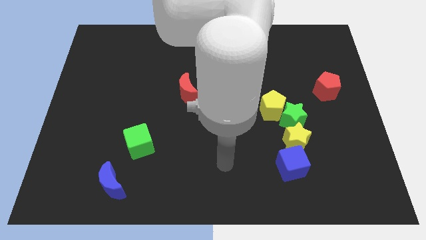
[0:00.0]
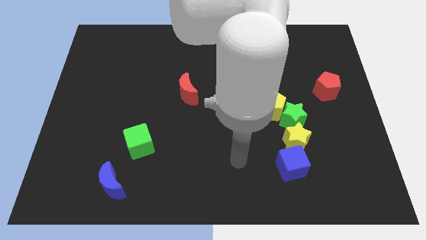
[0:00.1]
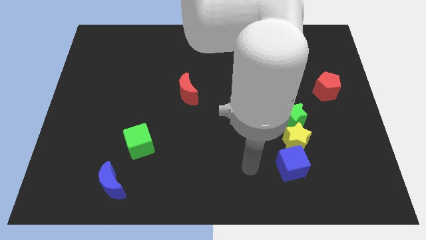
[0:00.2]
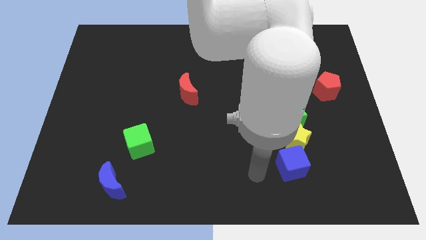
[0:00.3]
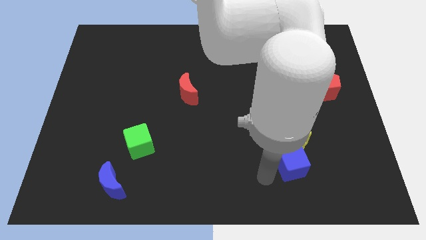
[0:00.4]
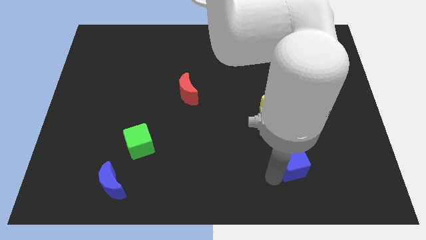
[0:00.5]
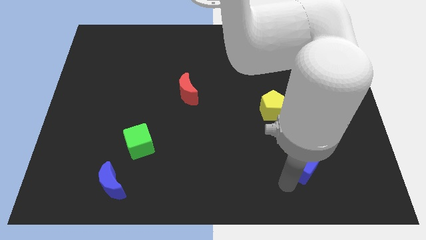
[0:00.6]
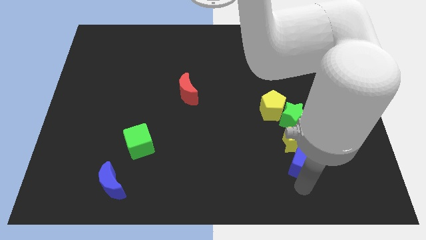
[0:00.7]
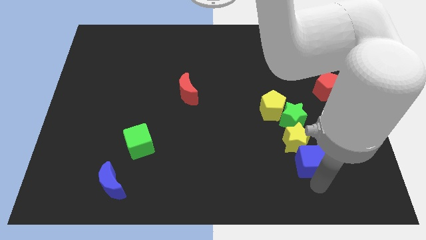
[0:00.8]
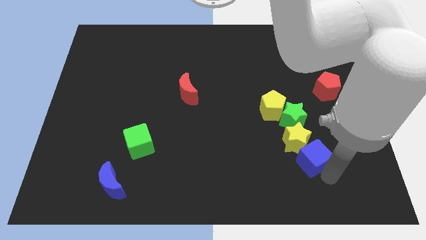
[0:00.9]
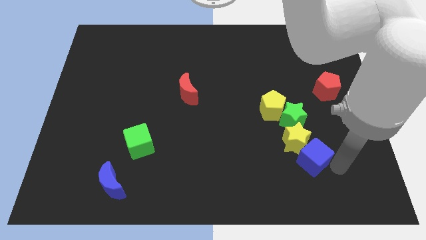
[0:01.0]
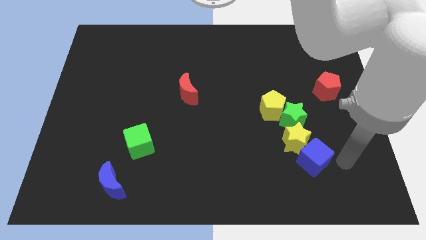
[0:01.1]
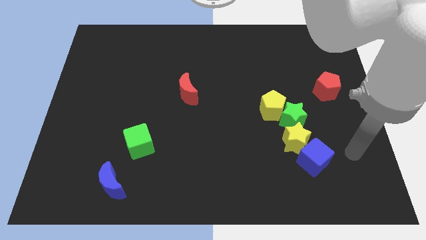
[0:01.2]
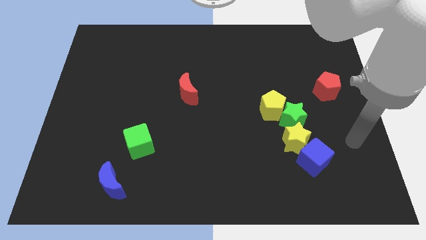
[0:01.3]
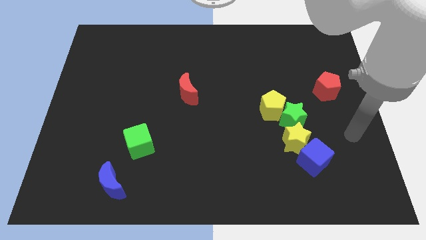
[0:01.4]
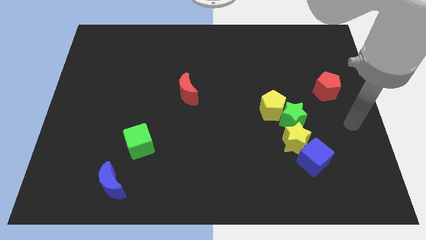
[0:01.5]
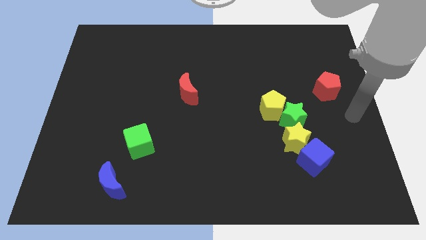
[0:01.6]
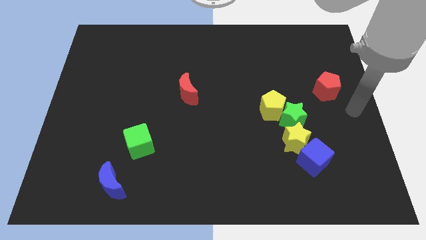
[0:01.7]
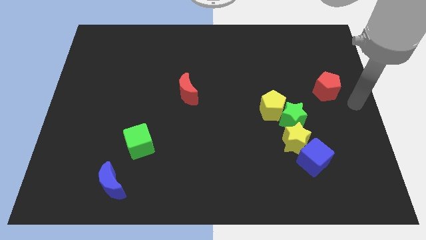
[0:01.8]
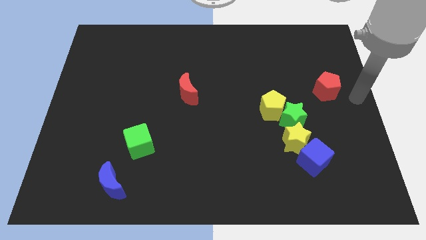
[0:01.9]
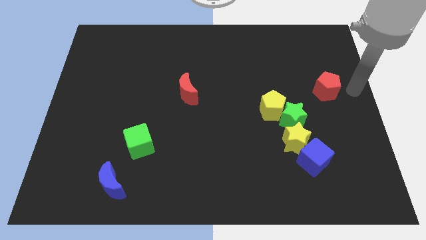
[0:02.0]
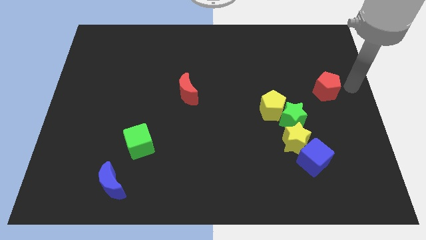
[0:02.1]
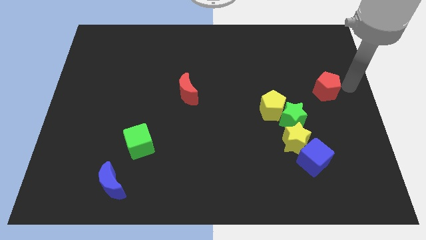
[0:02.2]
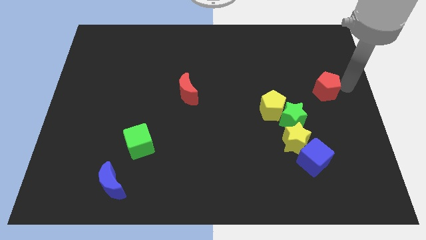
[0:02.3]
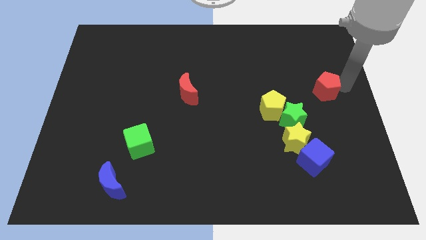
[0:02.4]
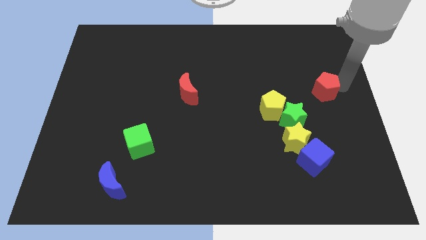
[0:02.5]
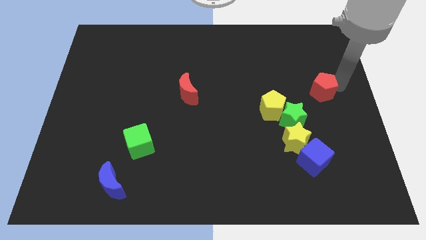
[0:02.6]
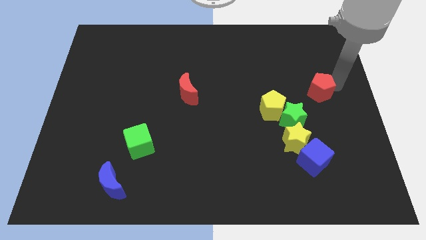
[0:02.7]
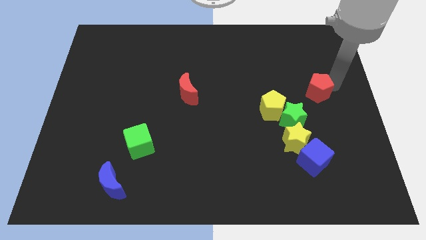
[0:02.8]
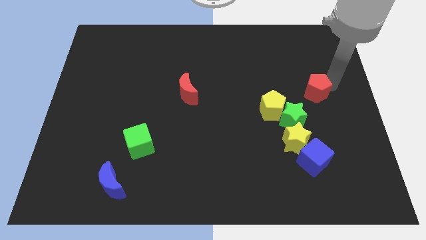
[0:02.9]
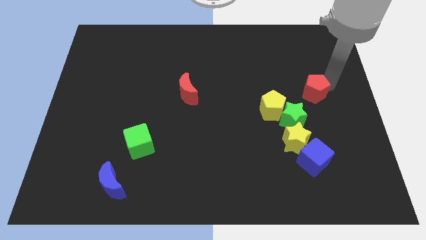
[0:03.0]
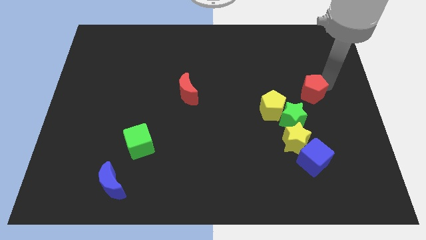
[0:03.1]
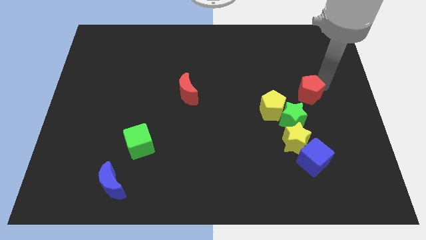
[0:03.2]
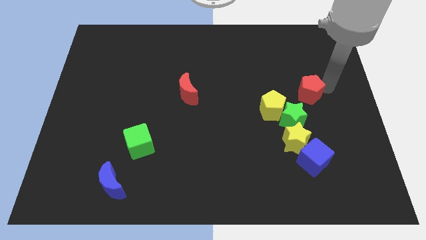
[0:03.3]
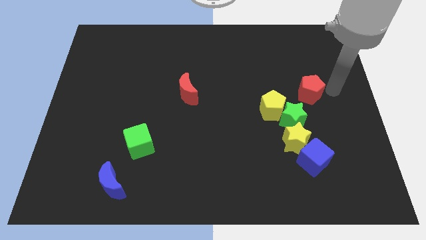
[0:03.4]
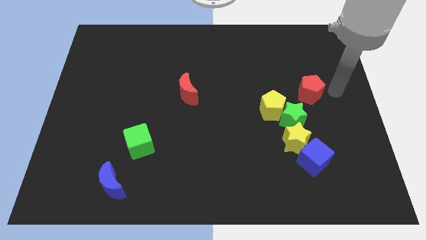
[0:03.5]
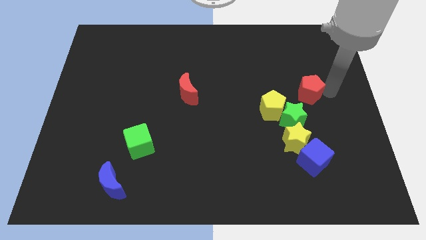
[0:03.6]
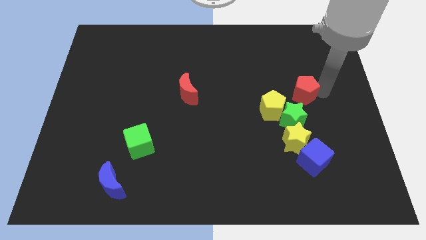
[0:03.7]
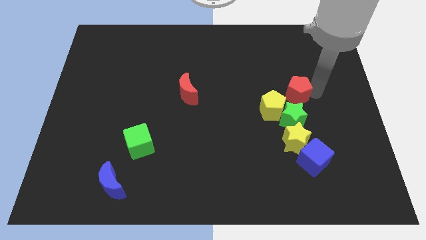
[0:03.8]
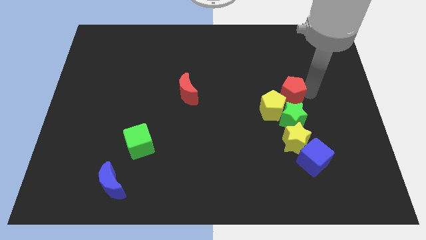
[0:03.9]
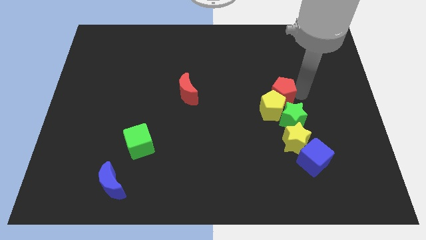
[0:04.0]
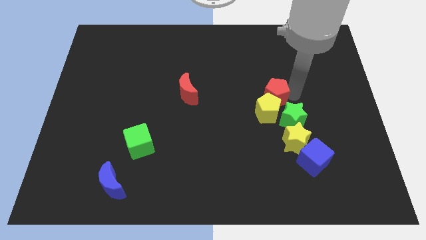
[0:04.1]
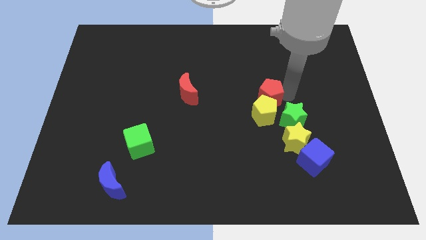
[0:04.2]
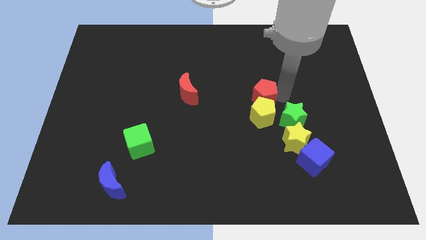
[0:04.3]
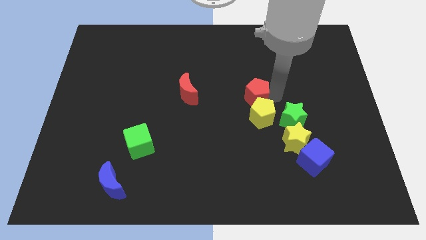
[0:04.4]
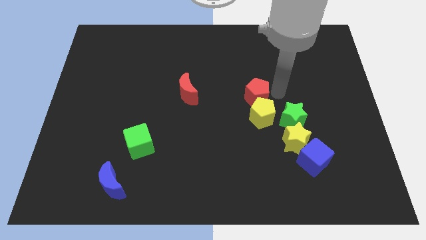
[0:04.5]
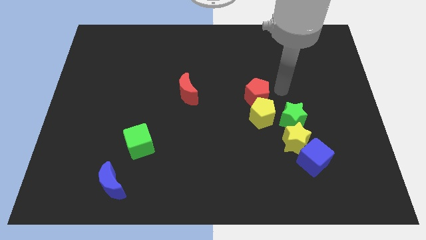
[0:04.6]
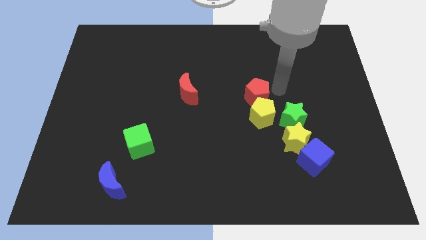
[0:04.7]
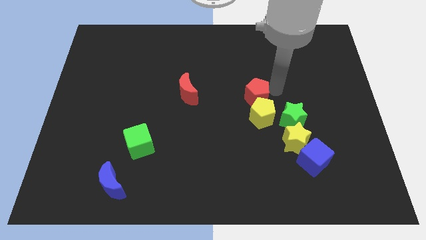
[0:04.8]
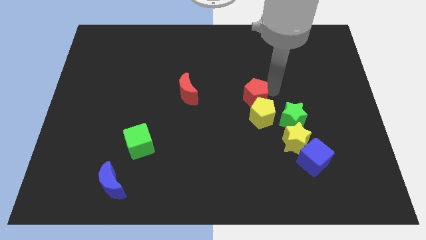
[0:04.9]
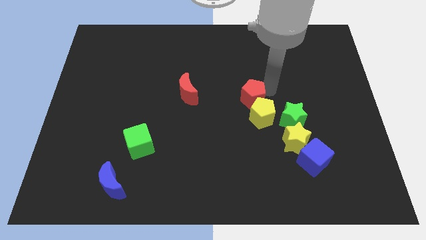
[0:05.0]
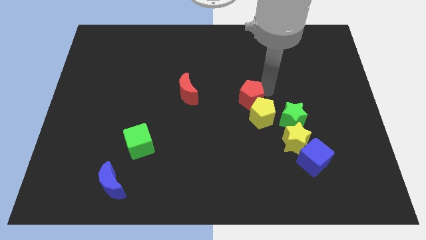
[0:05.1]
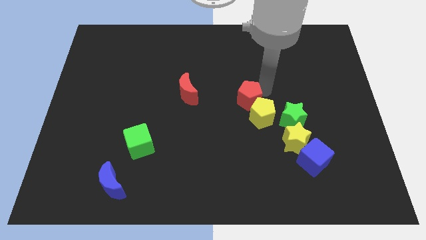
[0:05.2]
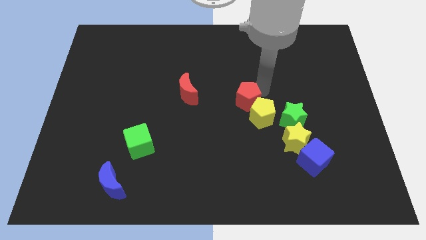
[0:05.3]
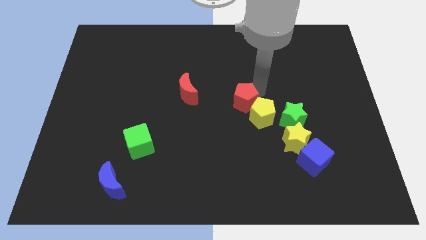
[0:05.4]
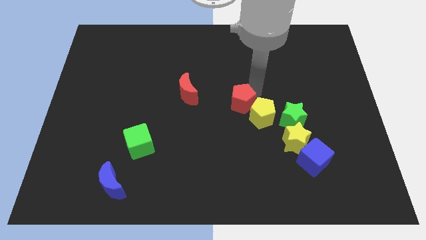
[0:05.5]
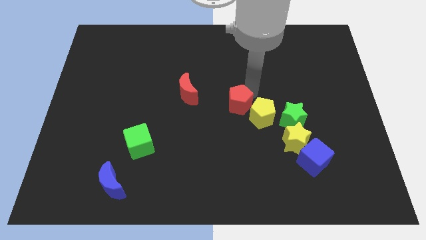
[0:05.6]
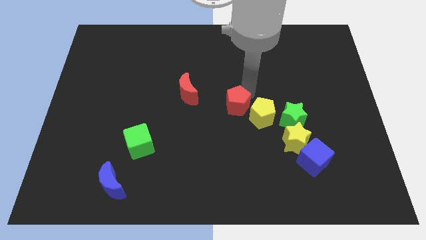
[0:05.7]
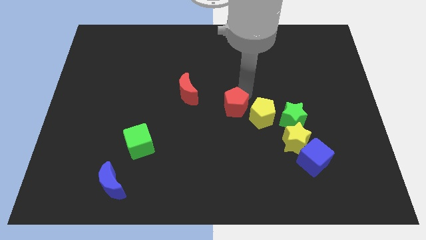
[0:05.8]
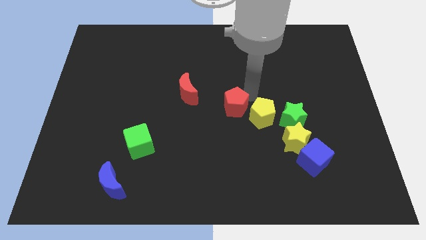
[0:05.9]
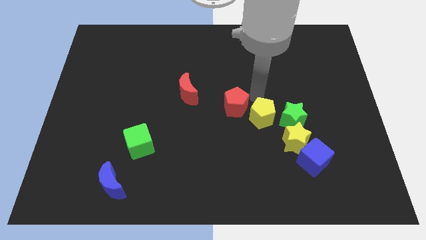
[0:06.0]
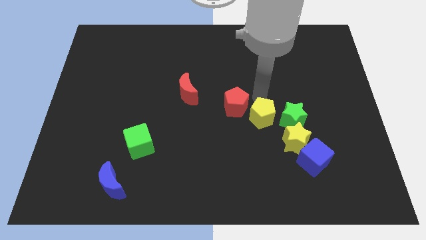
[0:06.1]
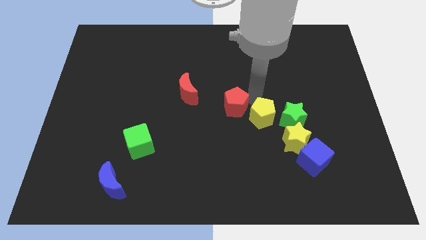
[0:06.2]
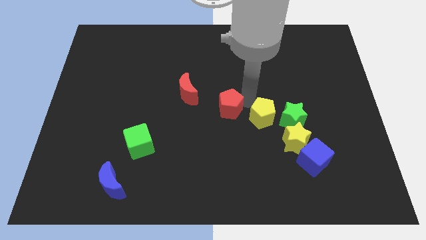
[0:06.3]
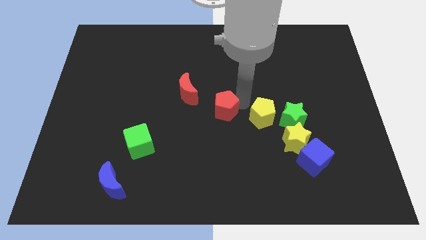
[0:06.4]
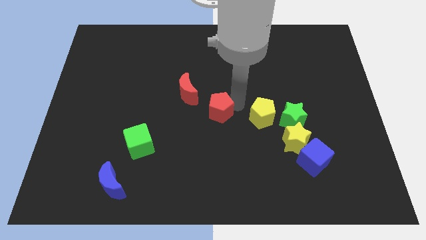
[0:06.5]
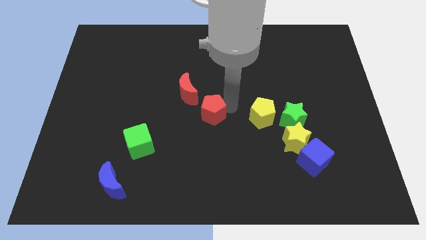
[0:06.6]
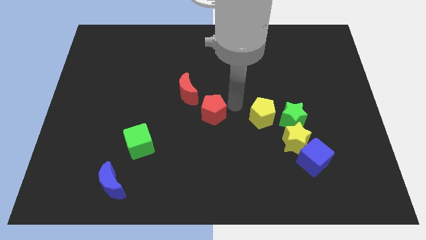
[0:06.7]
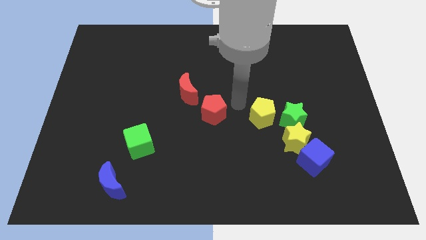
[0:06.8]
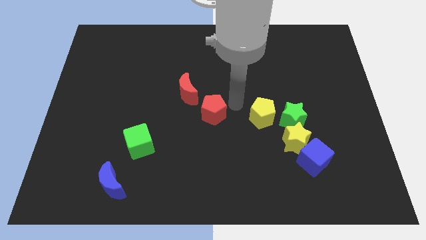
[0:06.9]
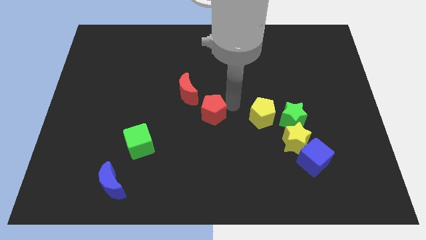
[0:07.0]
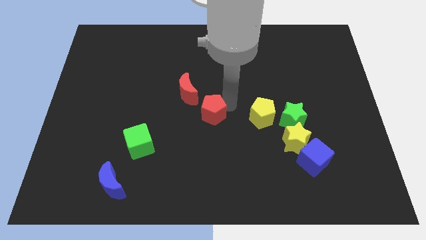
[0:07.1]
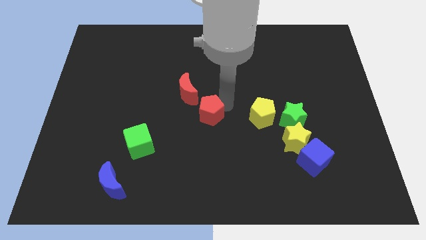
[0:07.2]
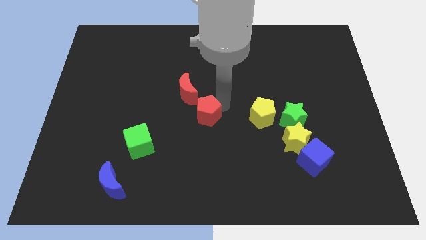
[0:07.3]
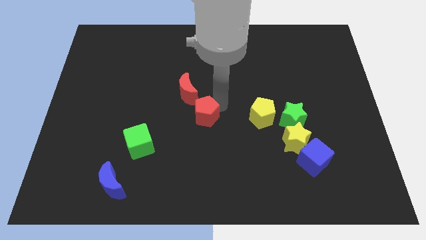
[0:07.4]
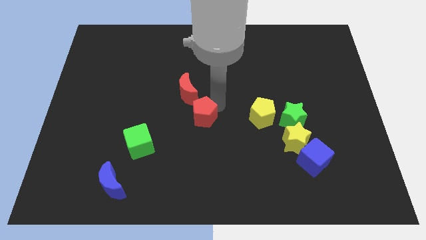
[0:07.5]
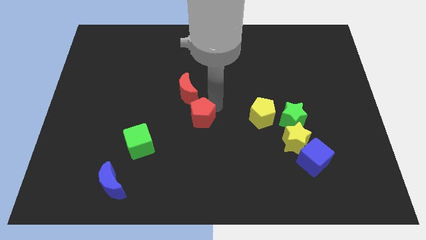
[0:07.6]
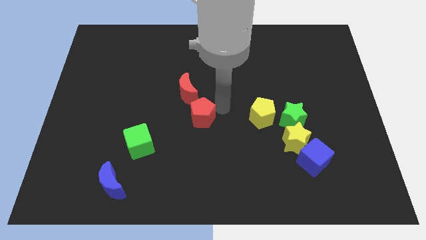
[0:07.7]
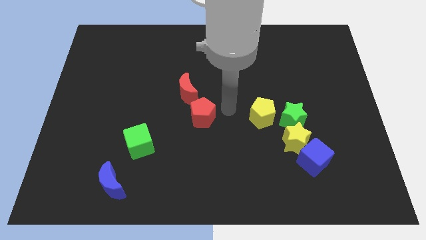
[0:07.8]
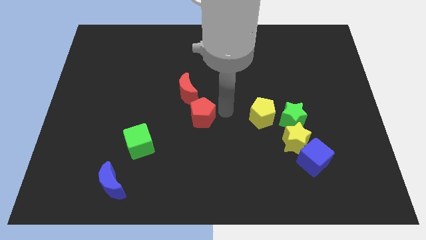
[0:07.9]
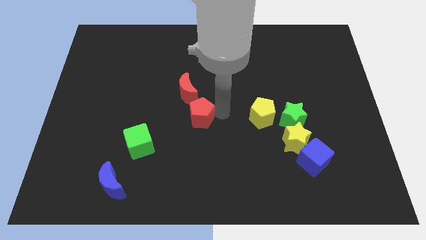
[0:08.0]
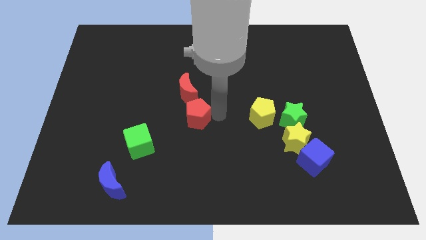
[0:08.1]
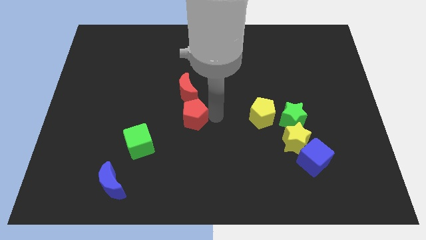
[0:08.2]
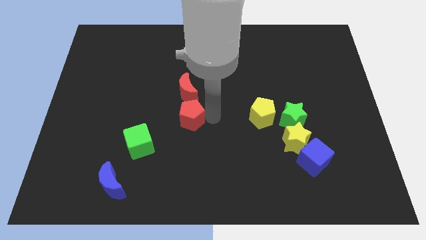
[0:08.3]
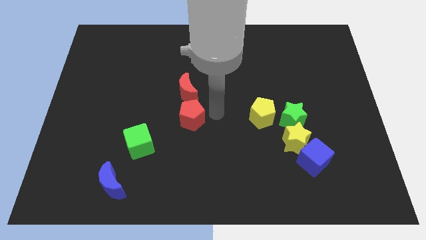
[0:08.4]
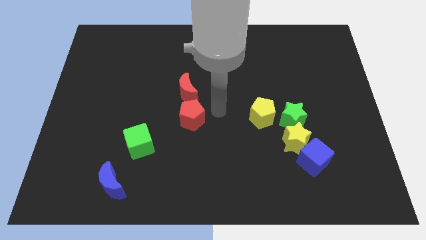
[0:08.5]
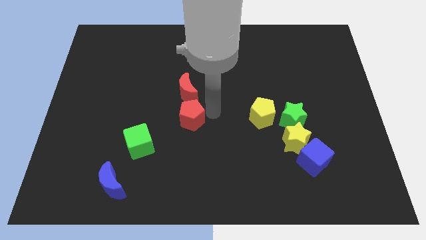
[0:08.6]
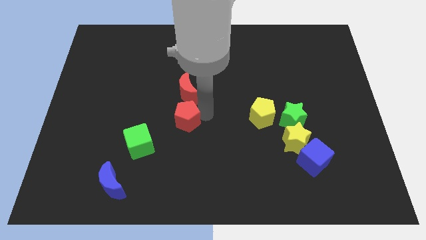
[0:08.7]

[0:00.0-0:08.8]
move the red pentagon to the top right side of the green cube
